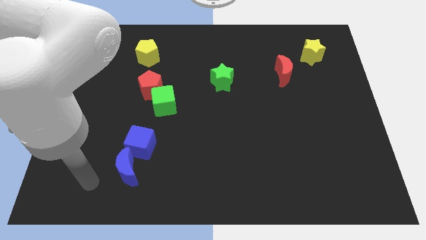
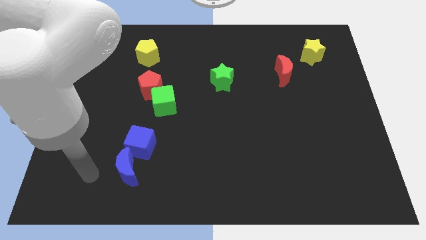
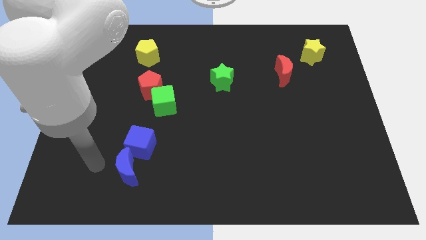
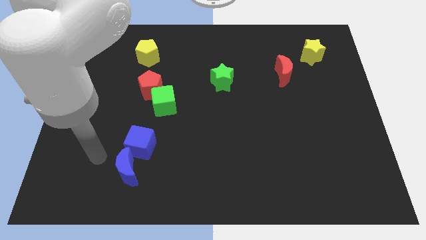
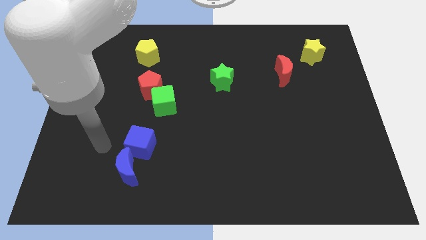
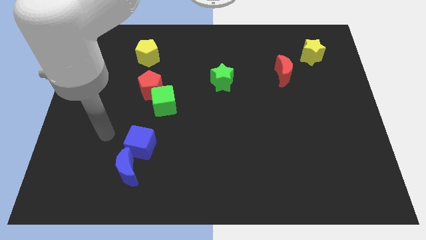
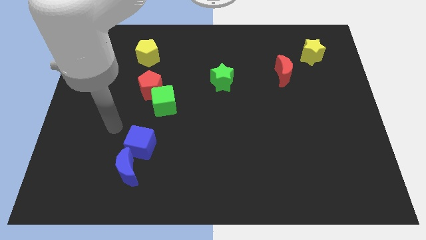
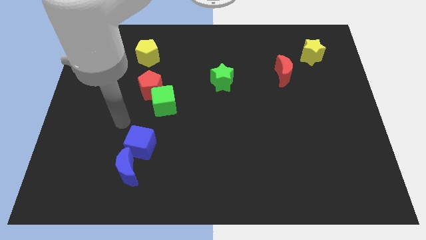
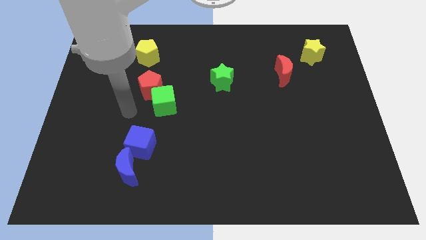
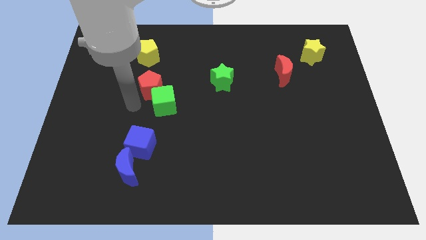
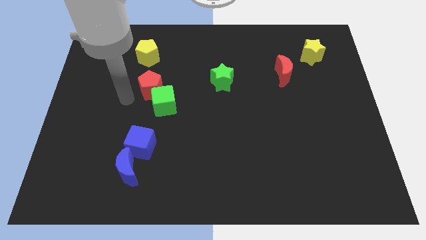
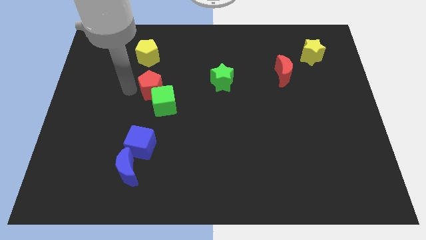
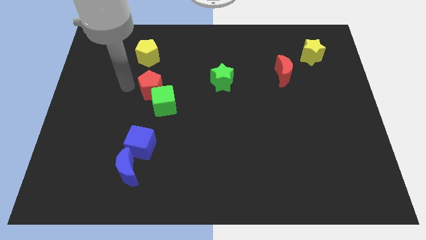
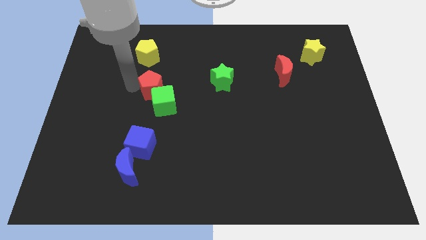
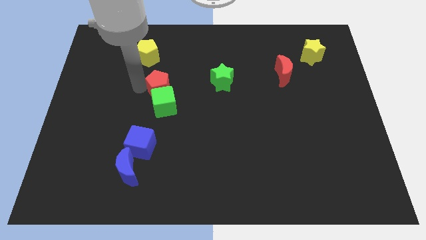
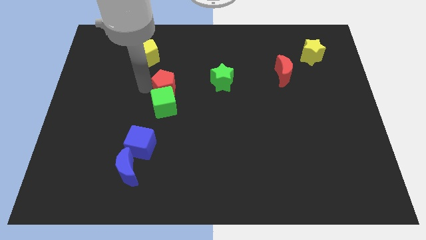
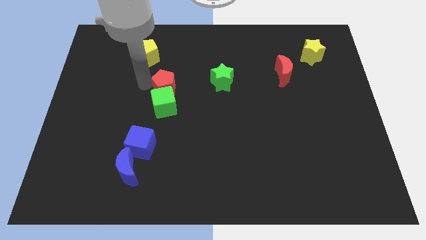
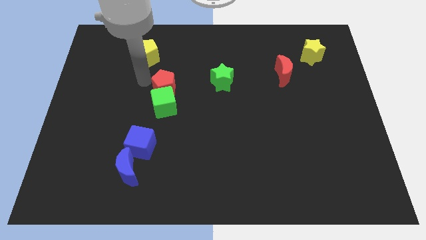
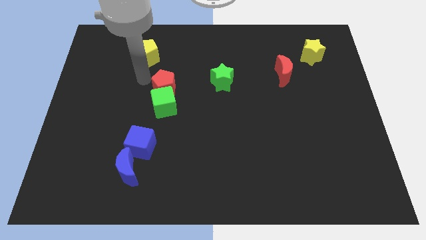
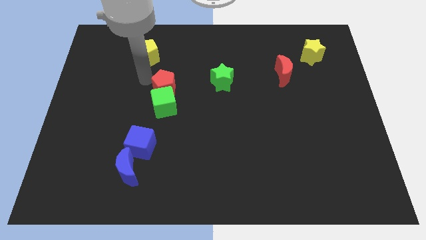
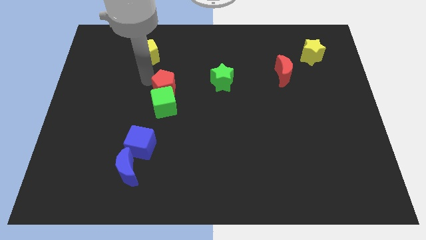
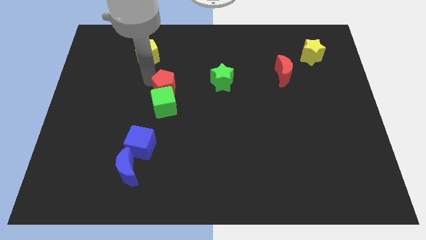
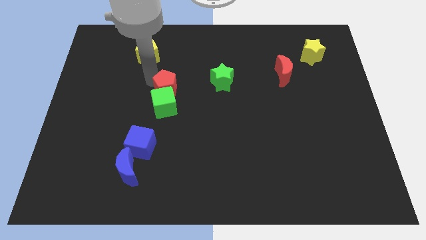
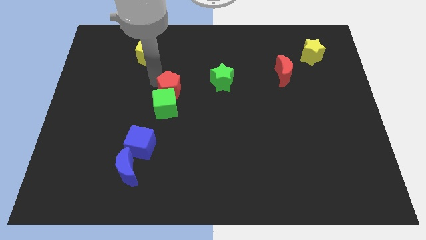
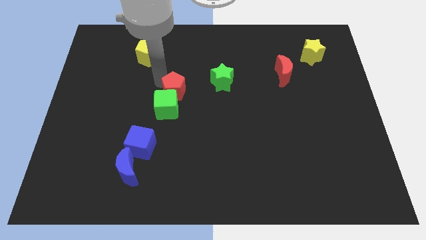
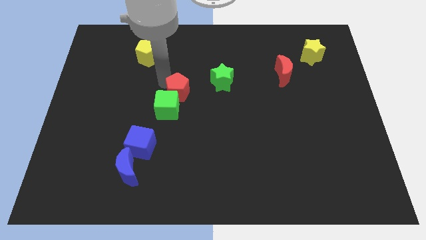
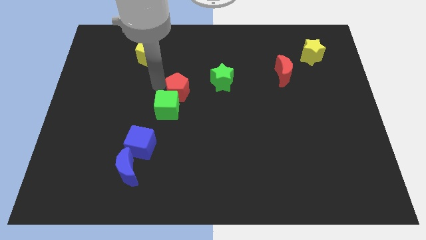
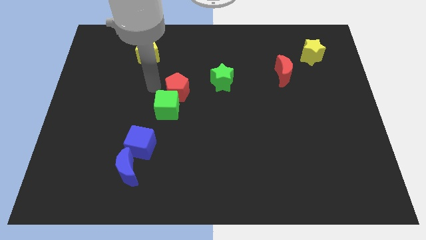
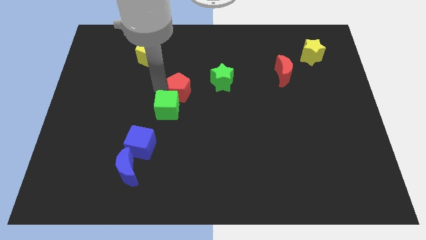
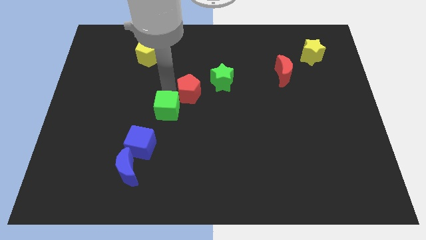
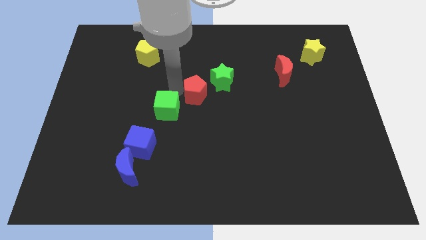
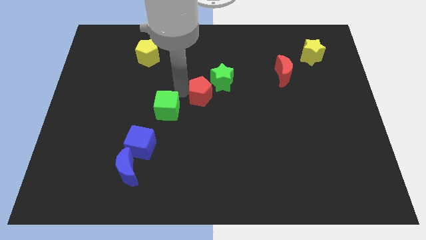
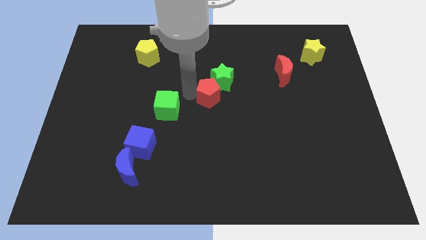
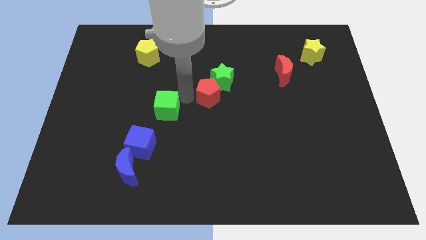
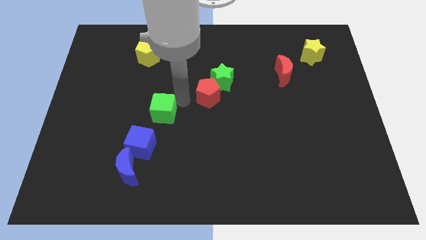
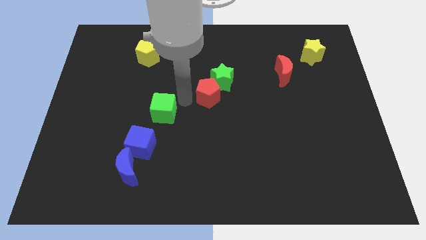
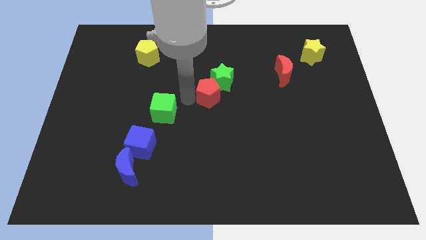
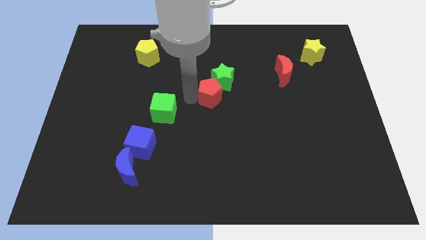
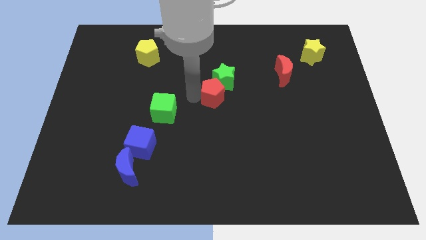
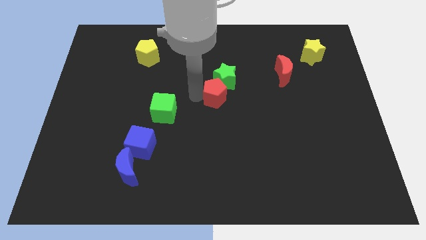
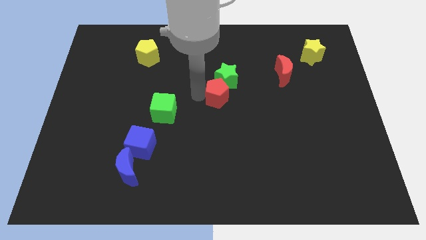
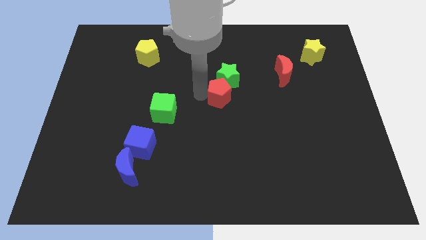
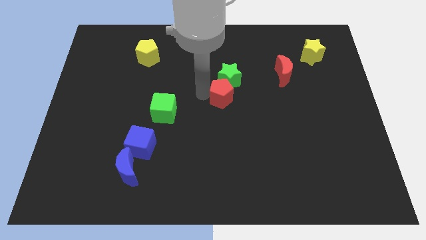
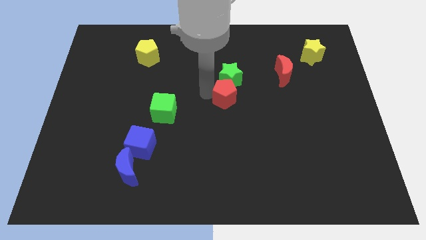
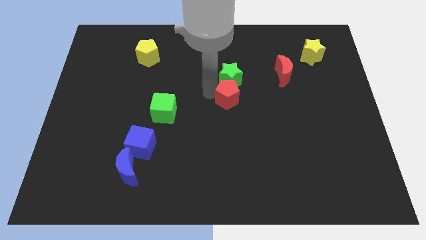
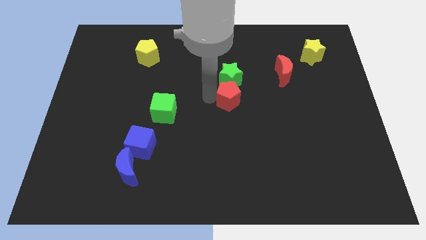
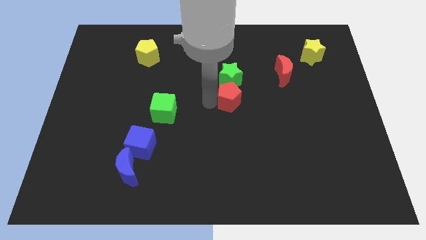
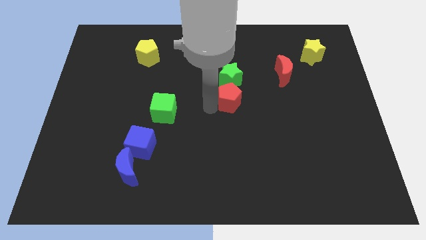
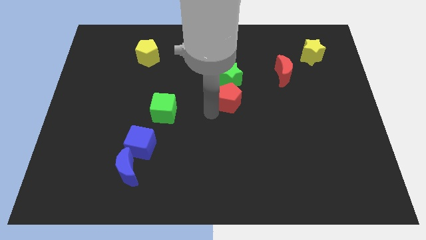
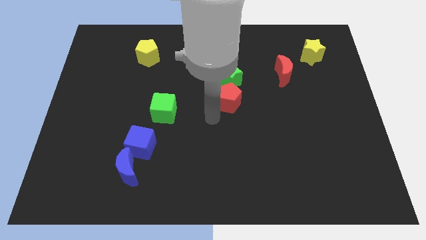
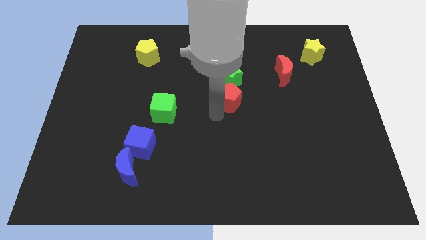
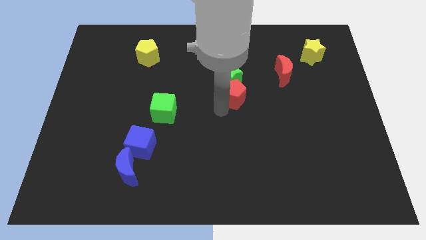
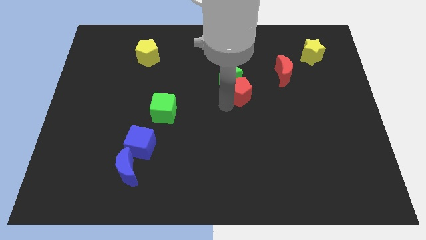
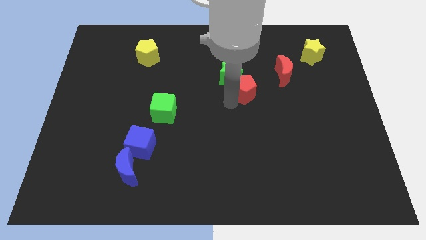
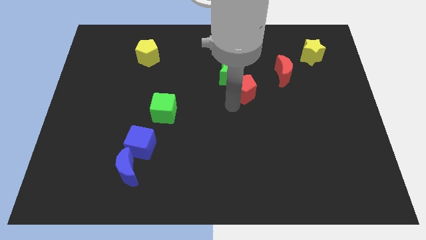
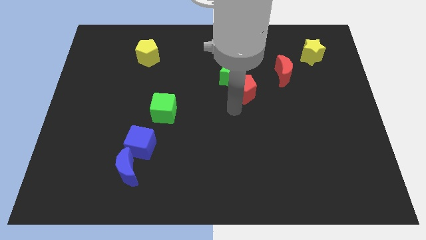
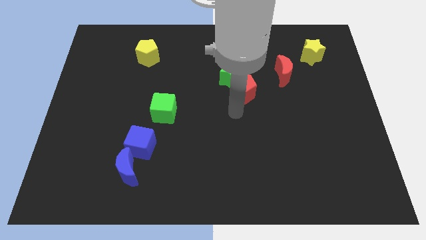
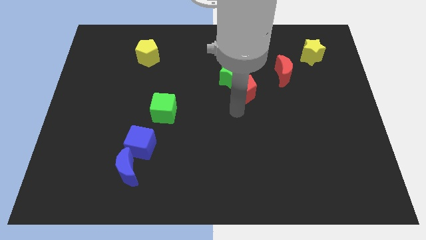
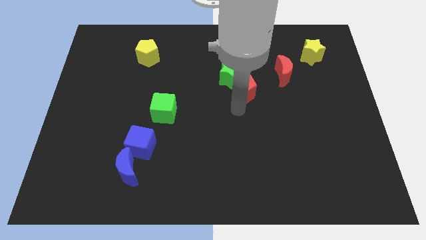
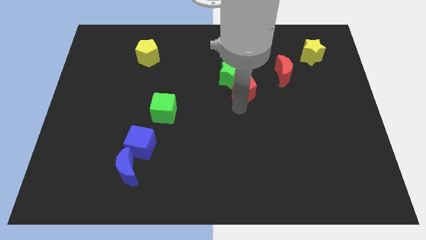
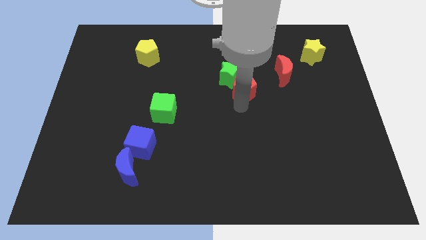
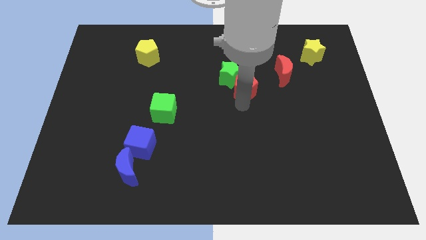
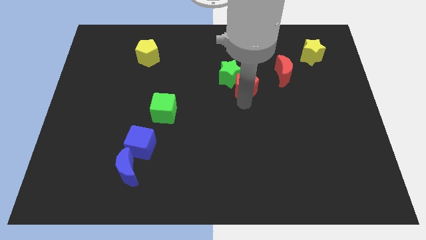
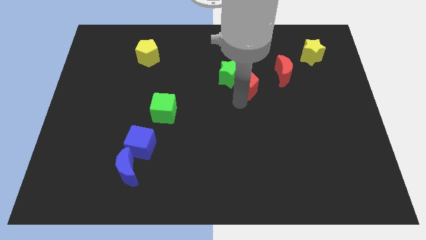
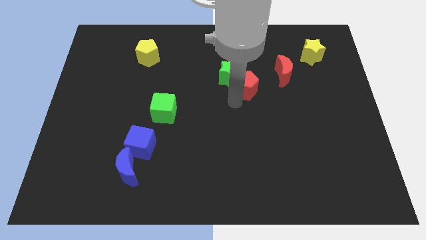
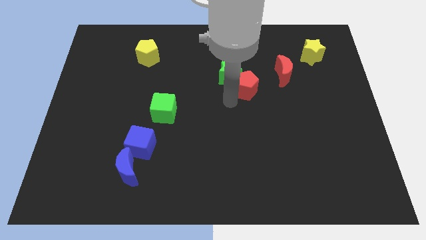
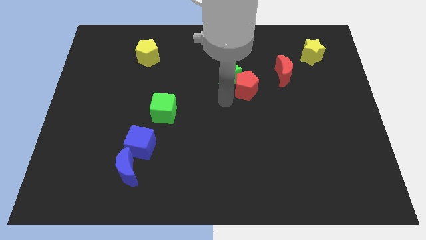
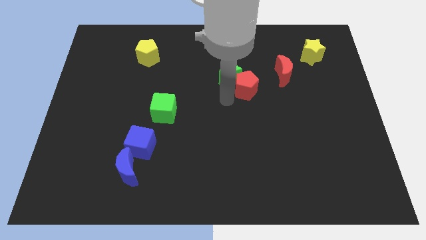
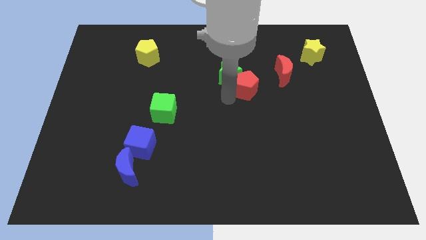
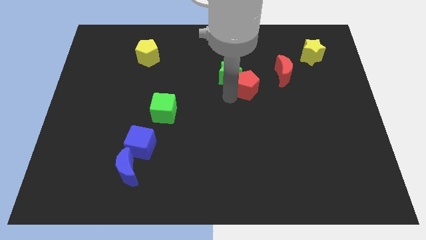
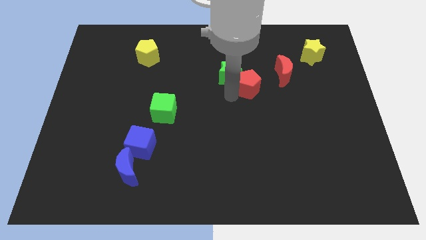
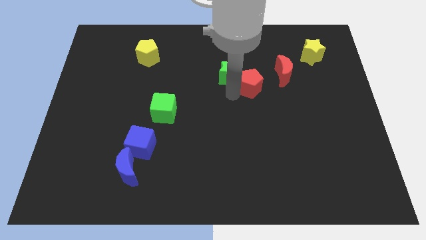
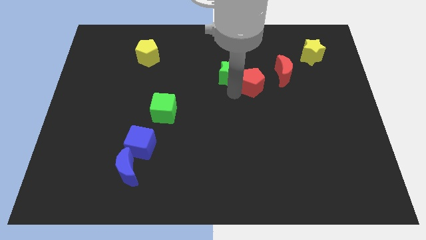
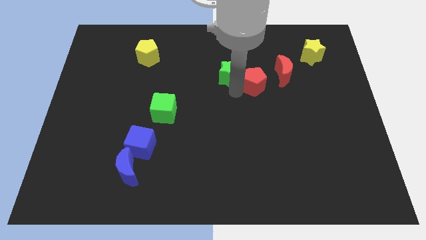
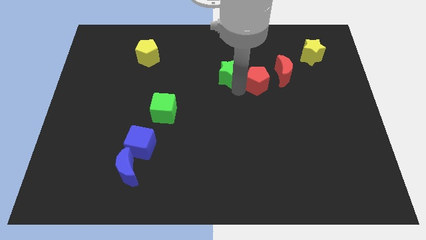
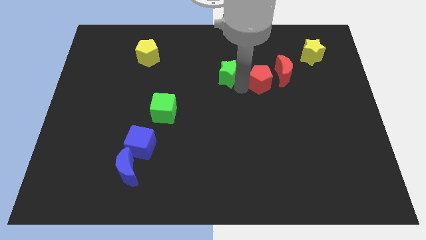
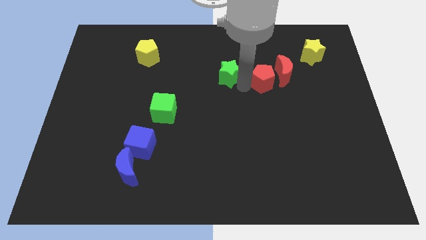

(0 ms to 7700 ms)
put the red pentagon next to the red moon
